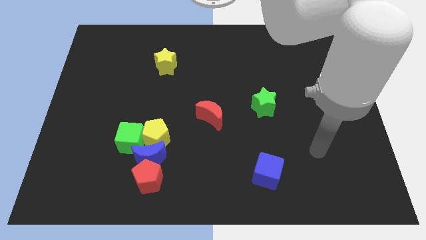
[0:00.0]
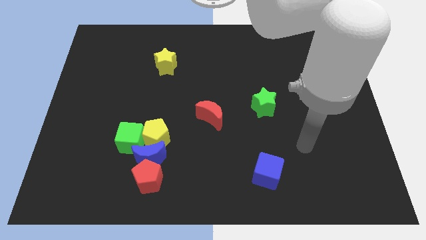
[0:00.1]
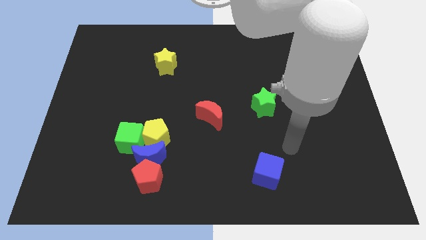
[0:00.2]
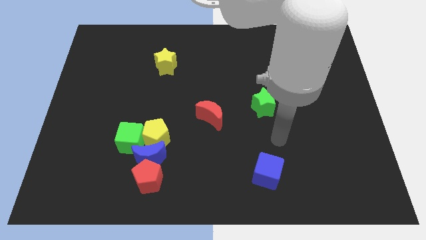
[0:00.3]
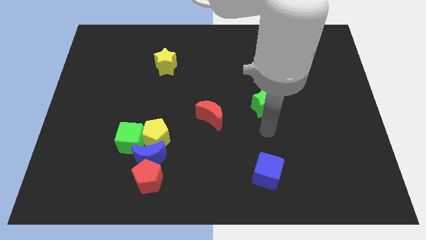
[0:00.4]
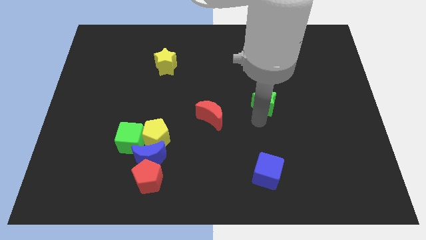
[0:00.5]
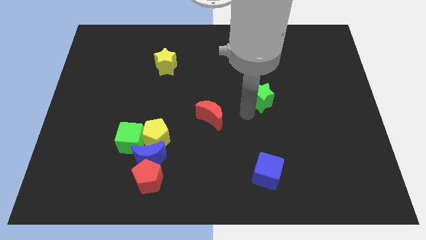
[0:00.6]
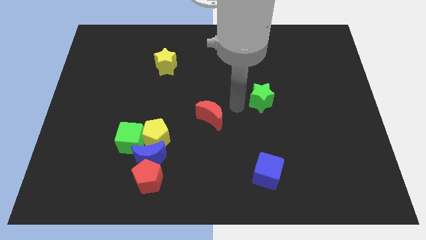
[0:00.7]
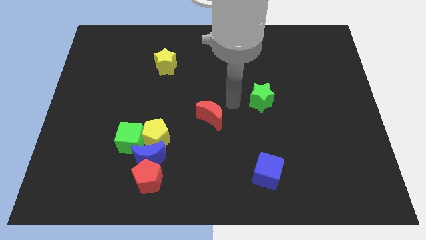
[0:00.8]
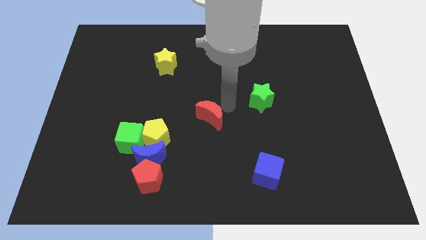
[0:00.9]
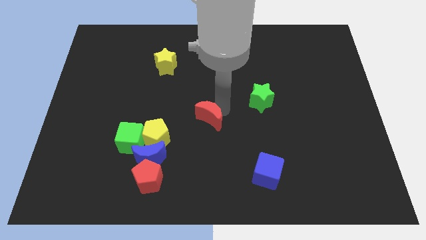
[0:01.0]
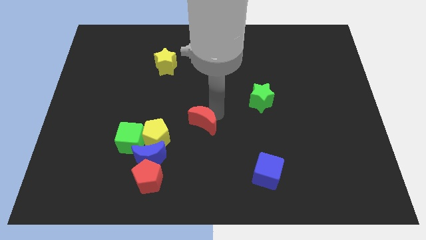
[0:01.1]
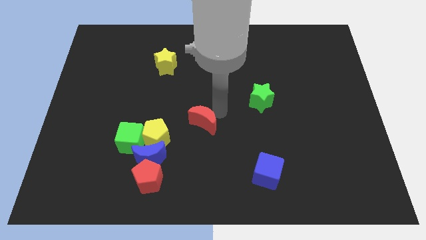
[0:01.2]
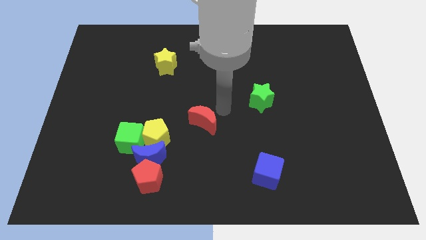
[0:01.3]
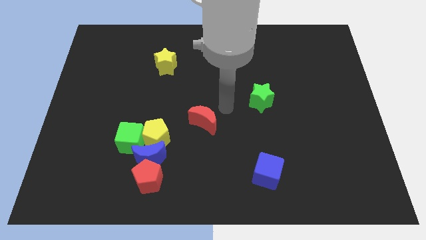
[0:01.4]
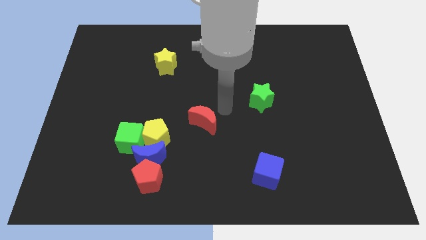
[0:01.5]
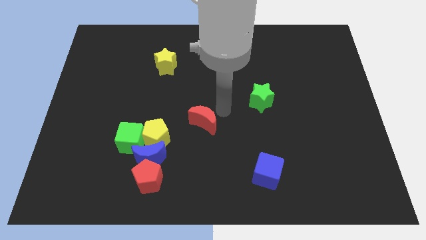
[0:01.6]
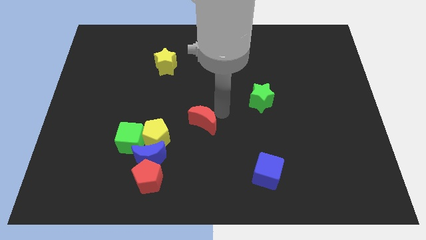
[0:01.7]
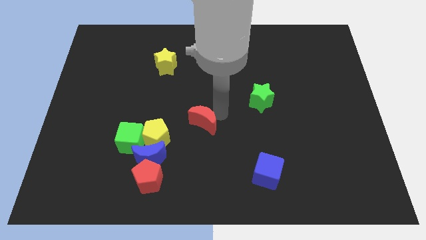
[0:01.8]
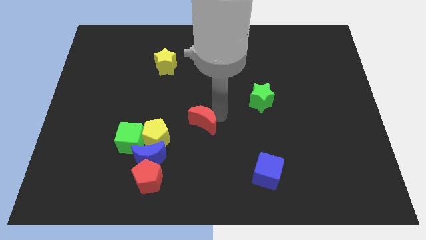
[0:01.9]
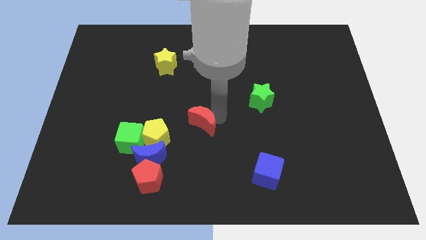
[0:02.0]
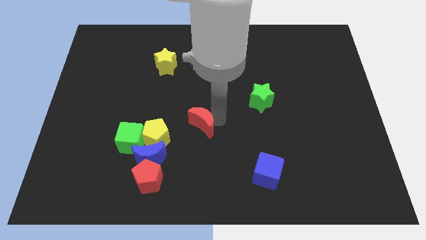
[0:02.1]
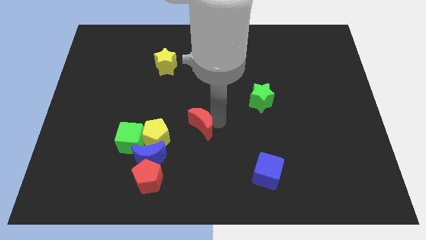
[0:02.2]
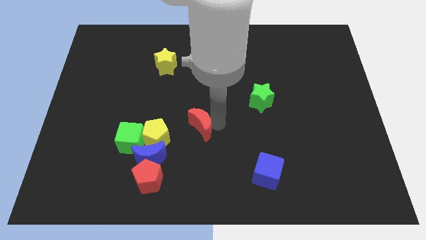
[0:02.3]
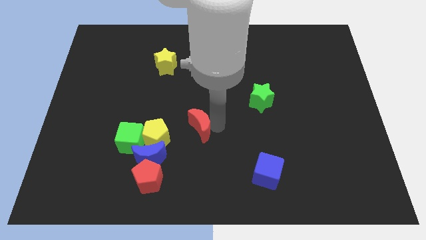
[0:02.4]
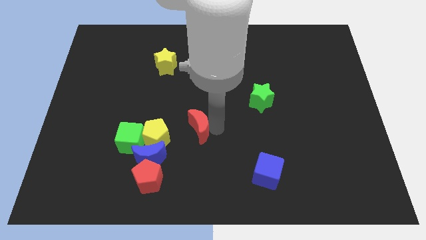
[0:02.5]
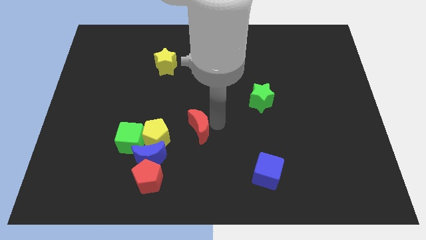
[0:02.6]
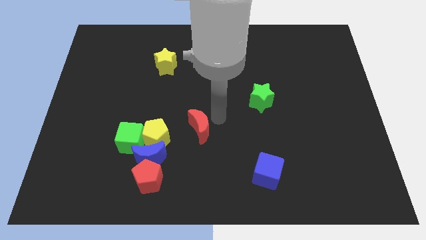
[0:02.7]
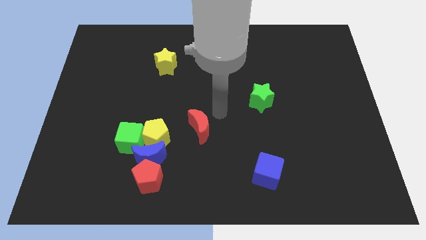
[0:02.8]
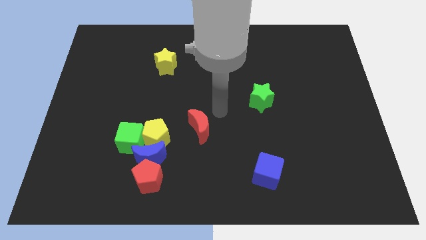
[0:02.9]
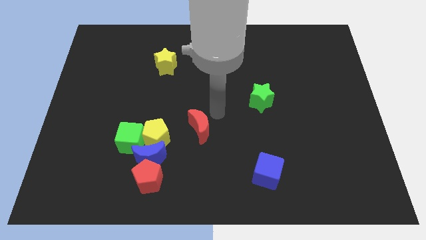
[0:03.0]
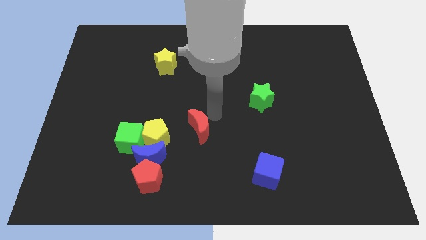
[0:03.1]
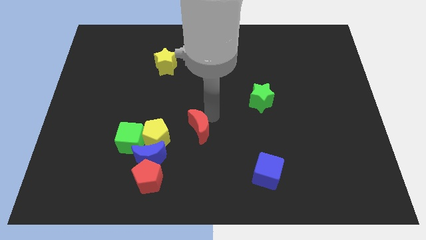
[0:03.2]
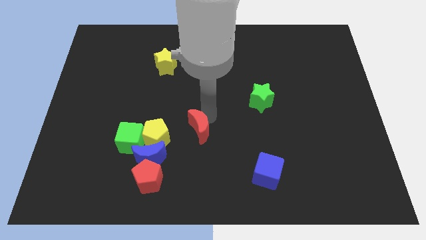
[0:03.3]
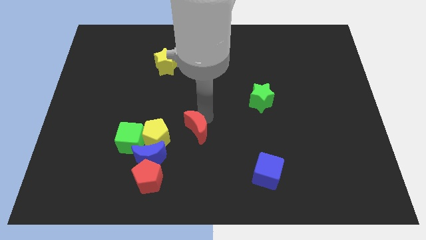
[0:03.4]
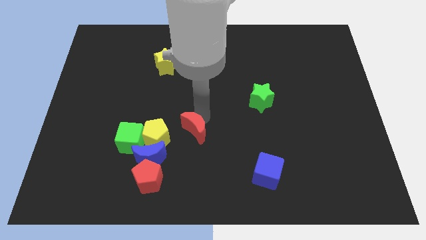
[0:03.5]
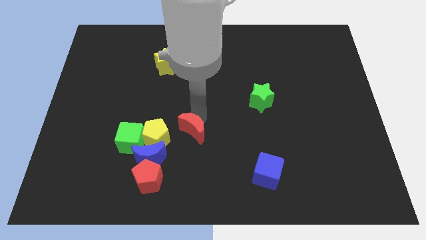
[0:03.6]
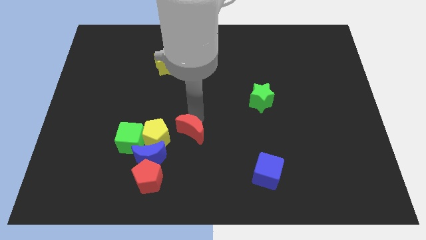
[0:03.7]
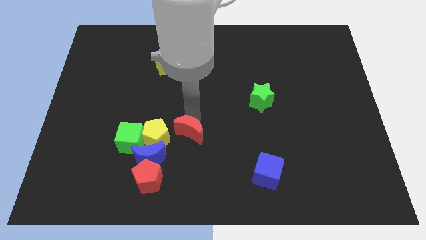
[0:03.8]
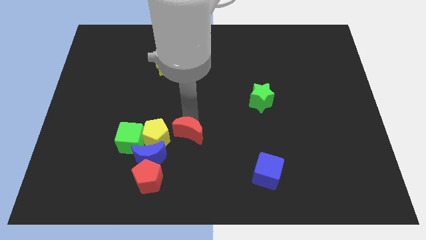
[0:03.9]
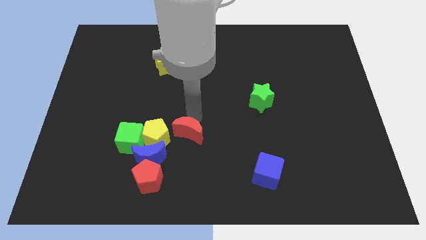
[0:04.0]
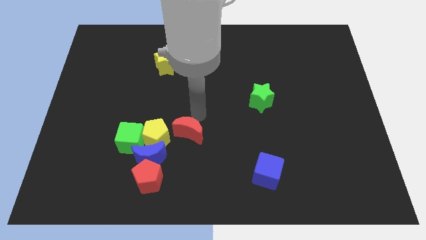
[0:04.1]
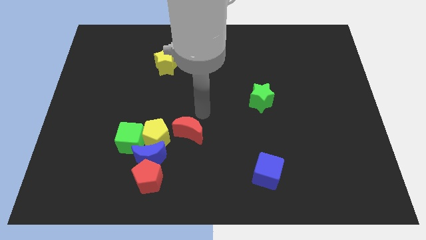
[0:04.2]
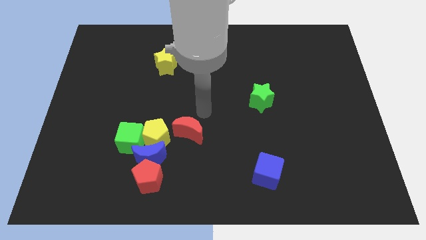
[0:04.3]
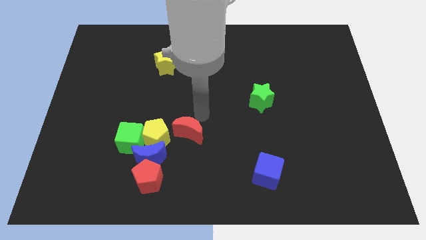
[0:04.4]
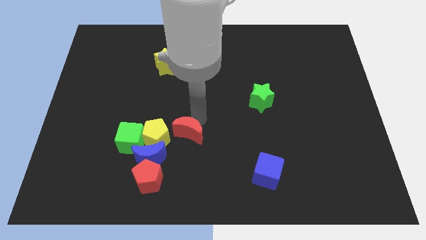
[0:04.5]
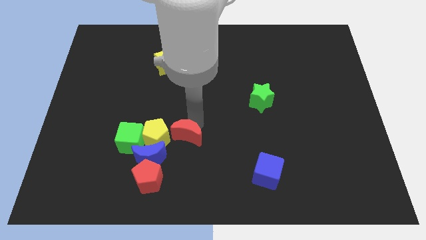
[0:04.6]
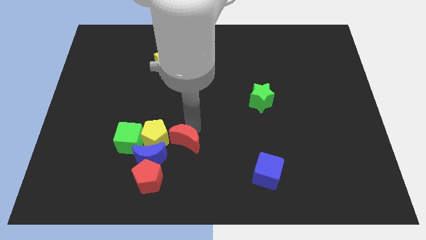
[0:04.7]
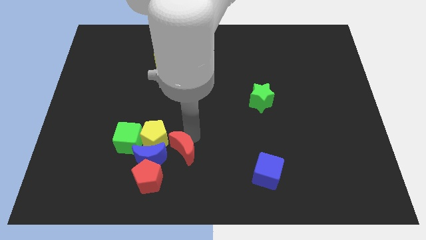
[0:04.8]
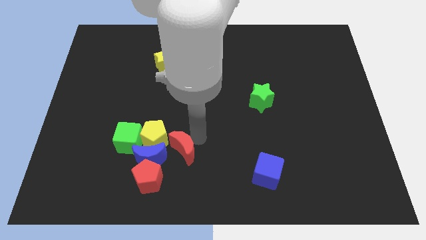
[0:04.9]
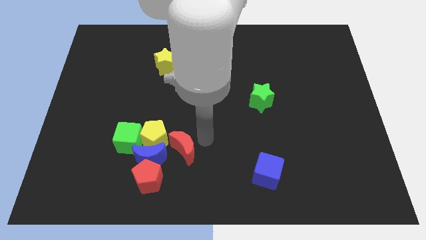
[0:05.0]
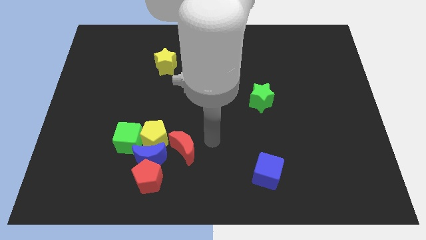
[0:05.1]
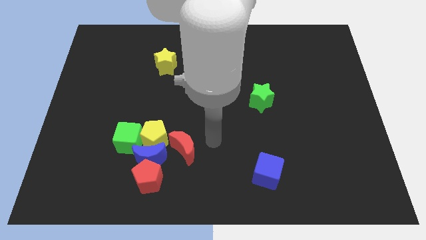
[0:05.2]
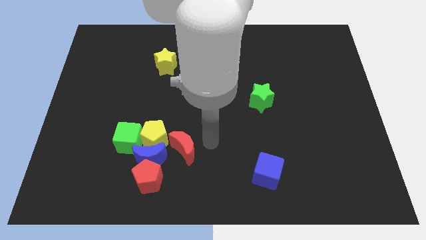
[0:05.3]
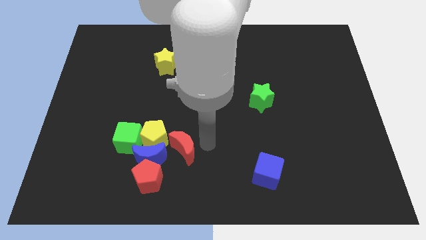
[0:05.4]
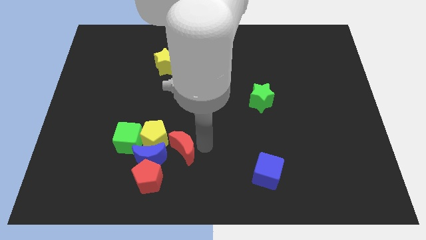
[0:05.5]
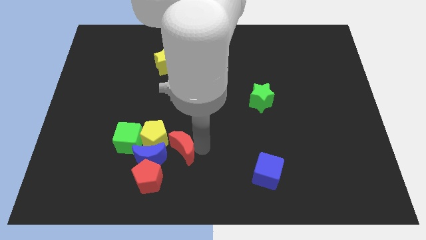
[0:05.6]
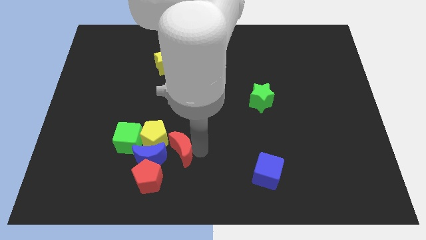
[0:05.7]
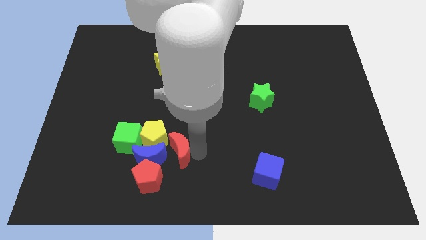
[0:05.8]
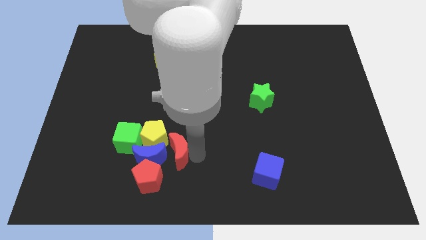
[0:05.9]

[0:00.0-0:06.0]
slide the red moon next to the blue moon
